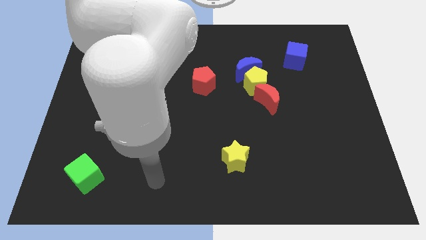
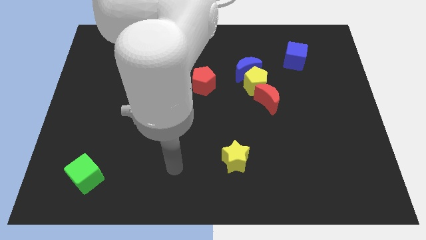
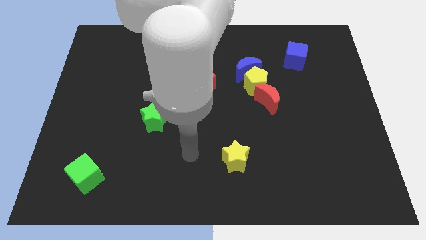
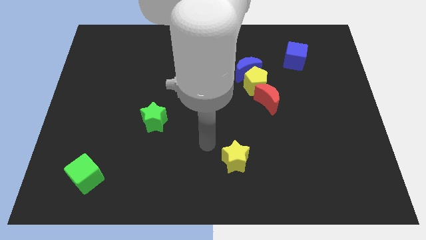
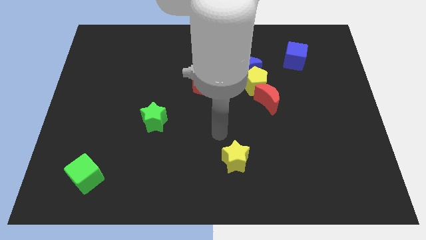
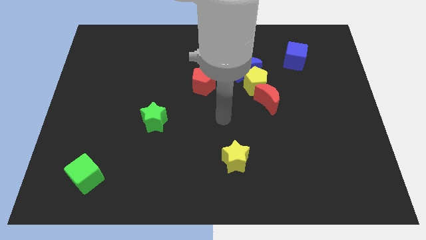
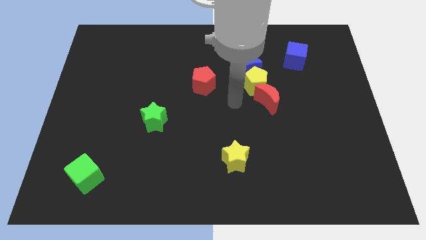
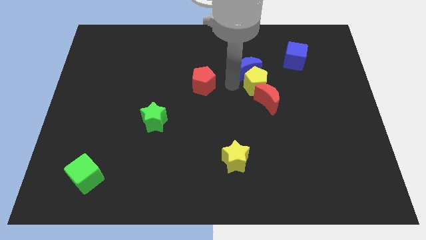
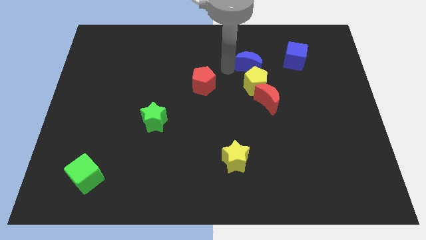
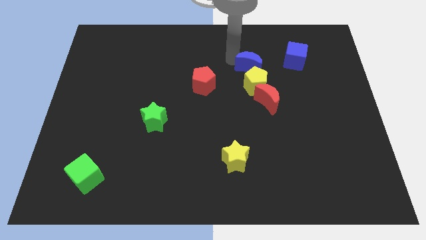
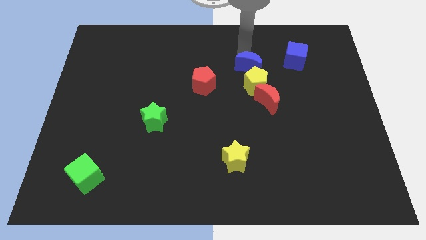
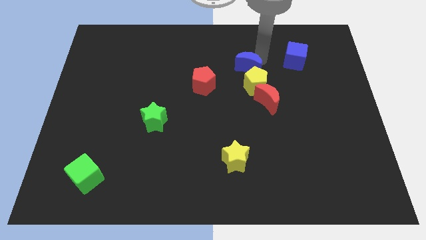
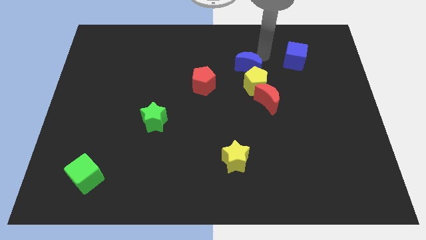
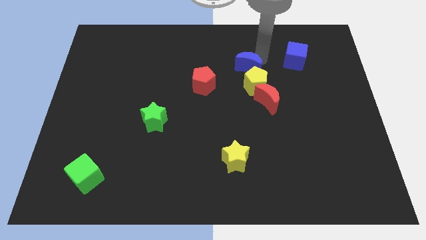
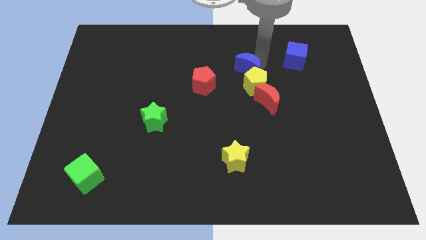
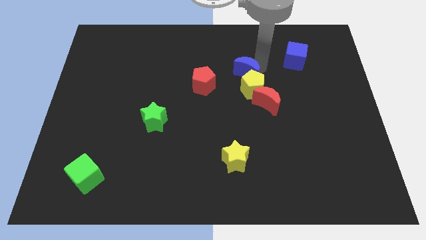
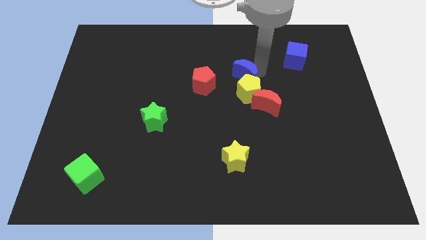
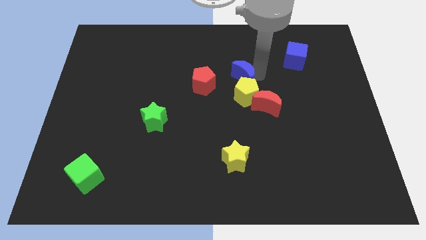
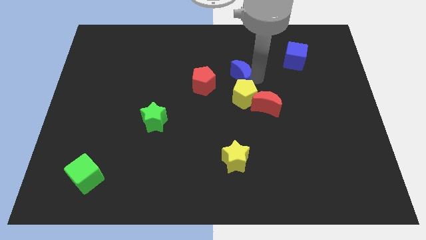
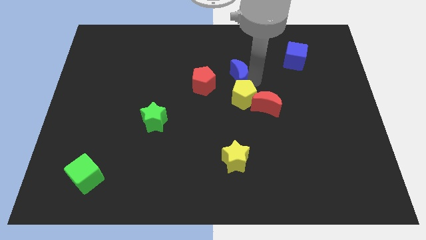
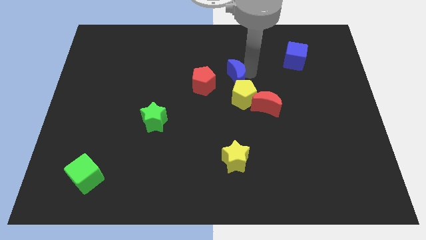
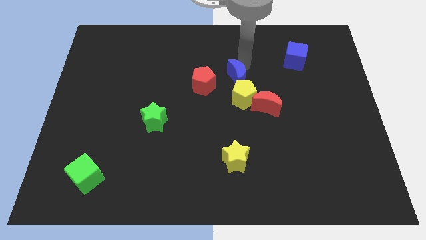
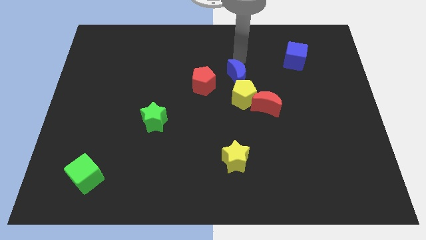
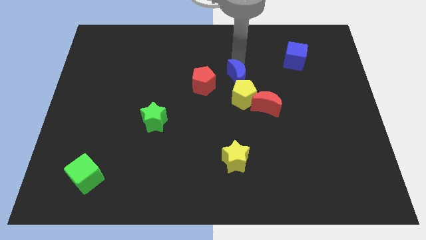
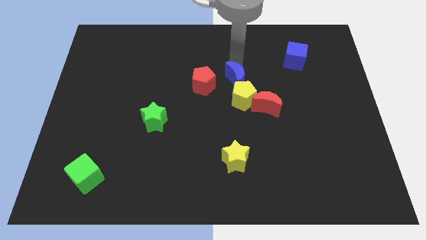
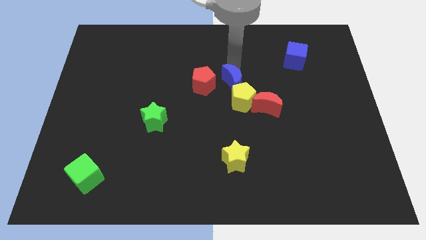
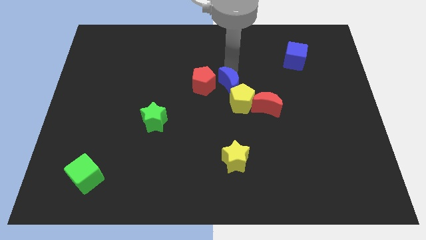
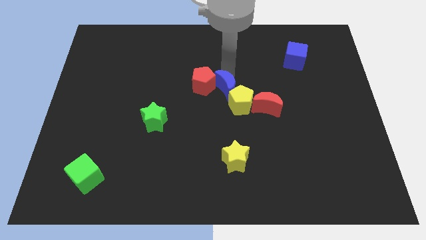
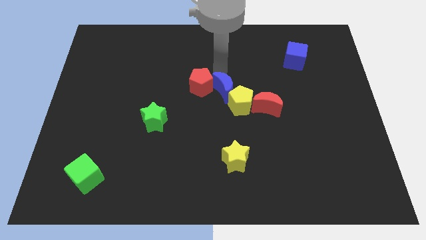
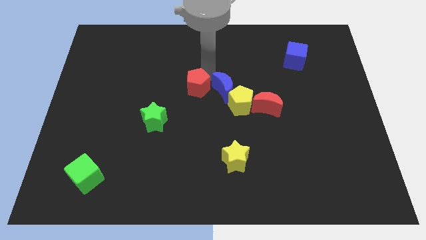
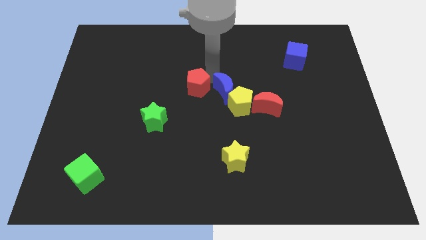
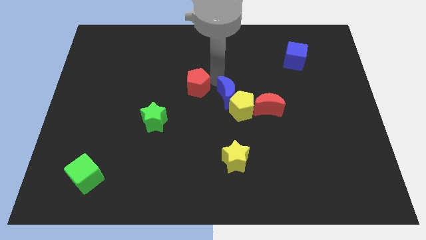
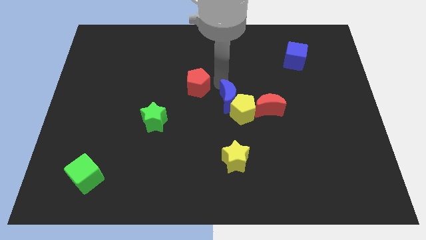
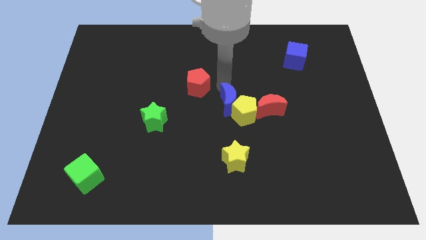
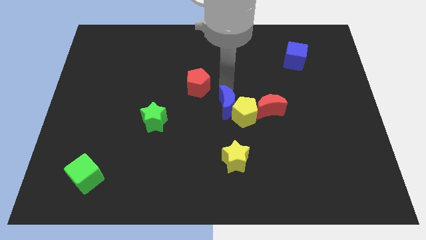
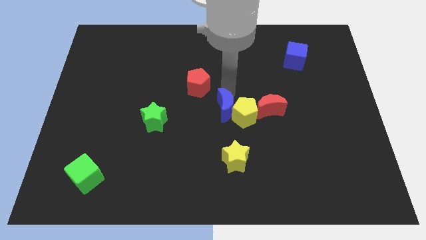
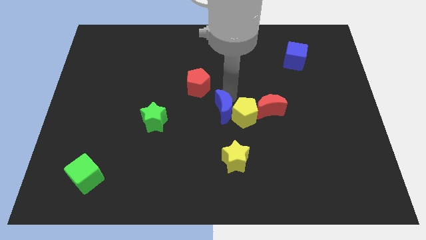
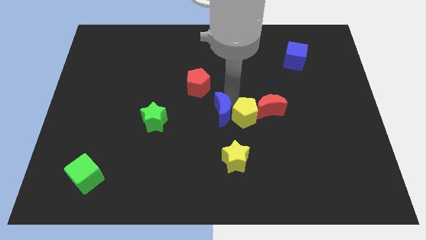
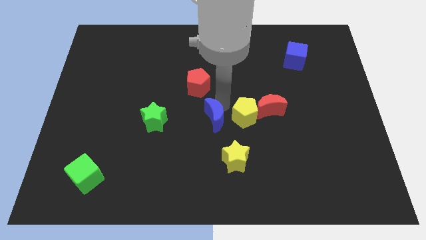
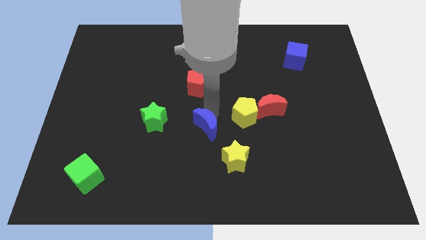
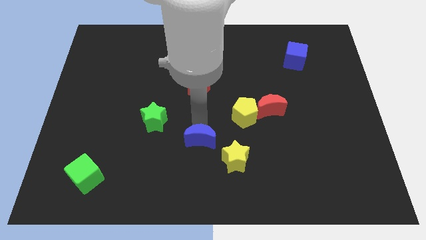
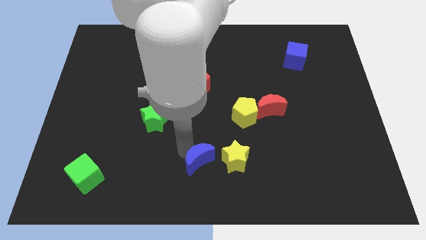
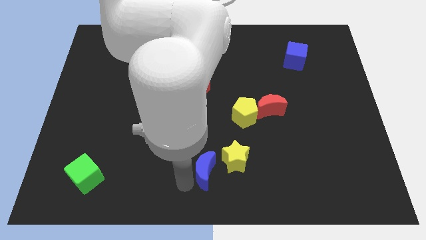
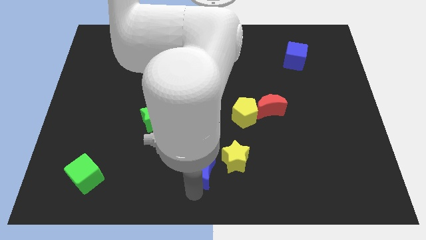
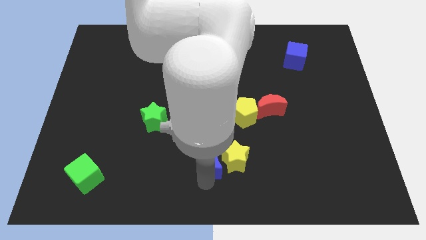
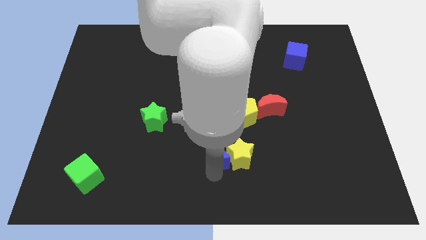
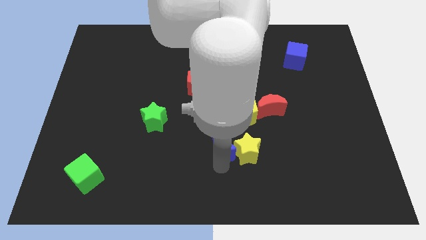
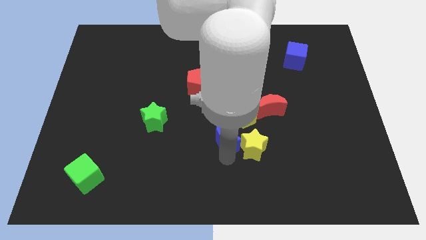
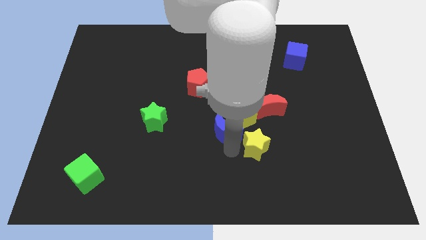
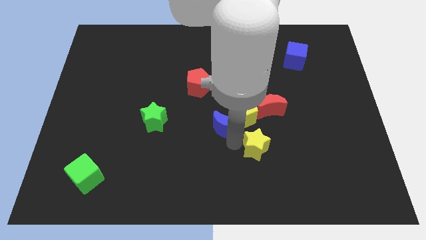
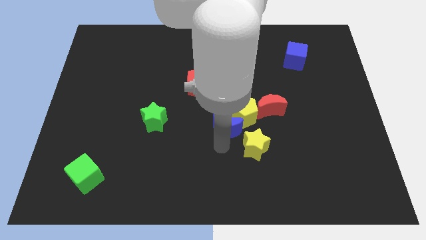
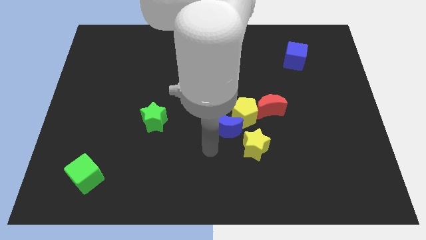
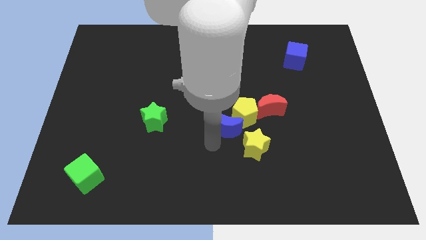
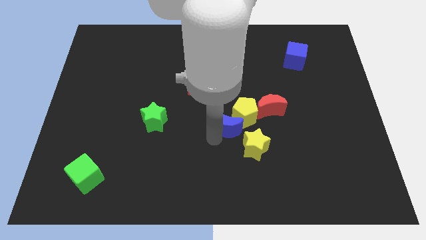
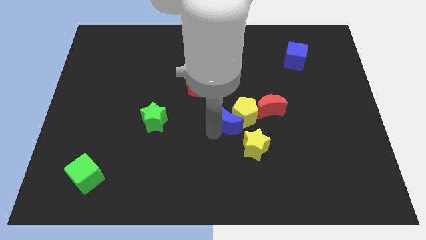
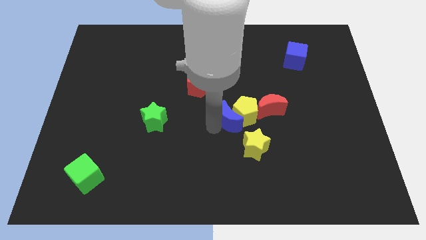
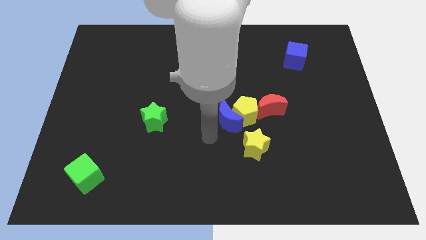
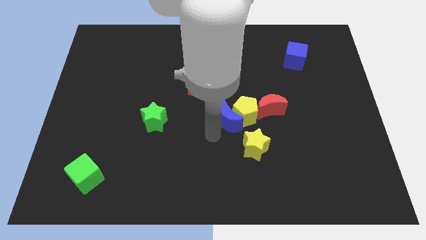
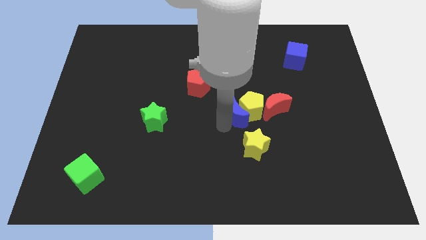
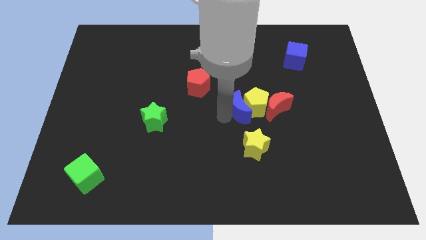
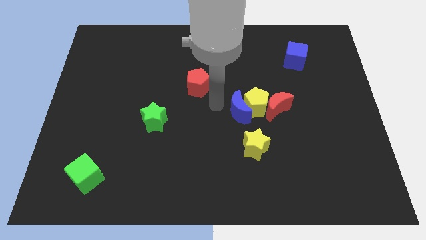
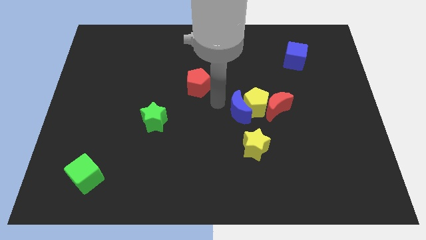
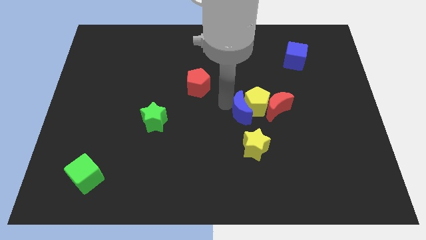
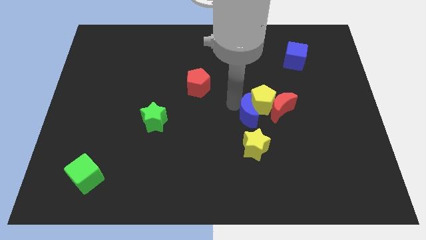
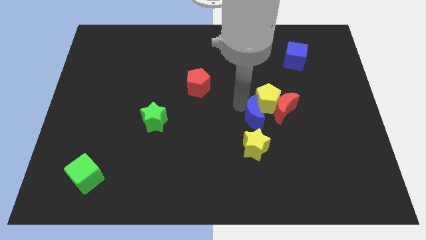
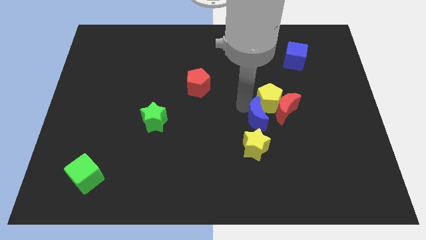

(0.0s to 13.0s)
put the blue moon to the top right of the yellow star

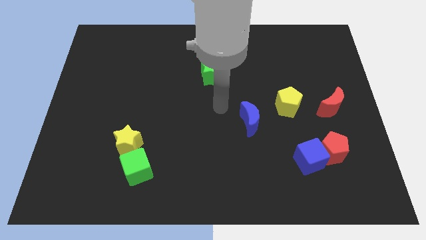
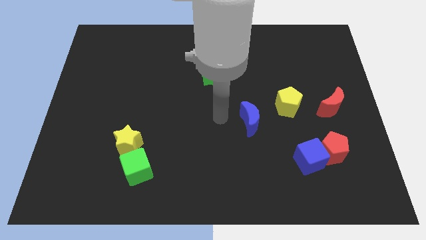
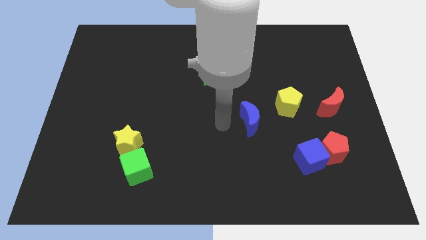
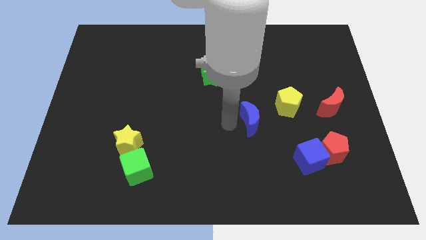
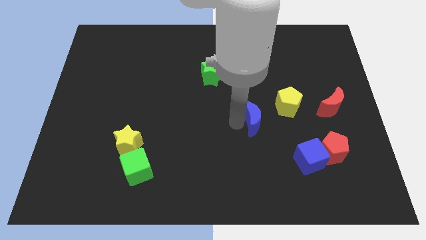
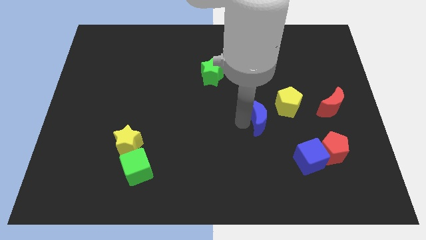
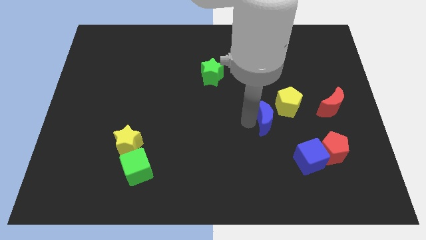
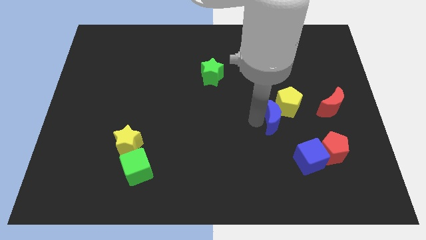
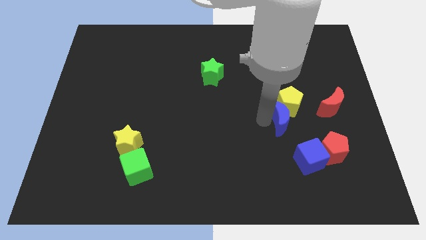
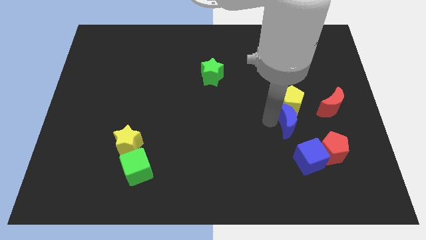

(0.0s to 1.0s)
slide the blue moon to the bottom right side of the yellow pentagon
